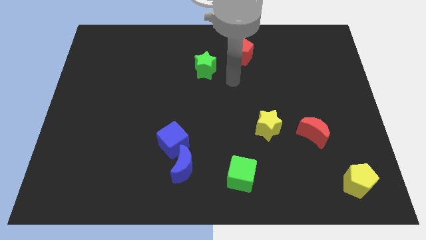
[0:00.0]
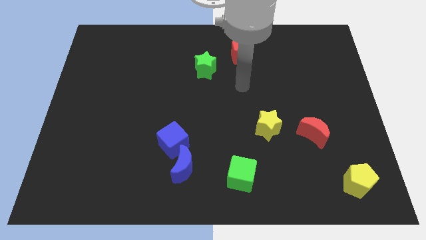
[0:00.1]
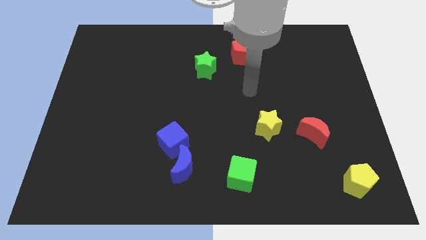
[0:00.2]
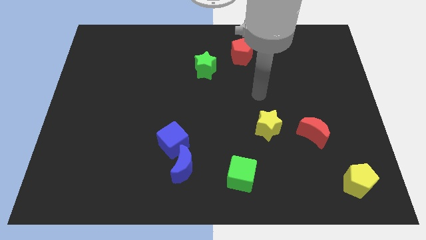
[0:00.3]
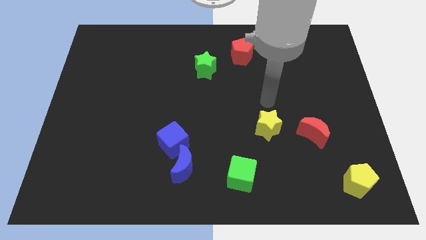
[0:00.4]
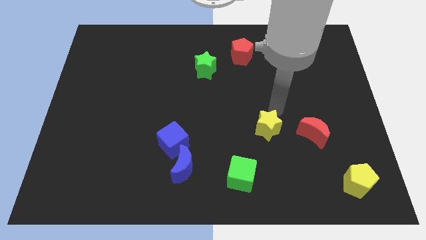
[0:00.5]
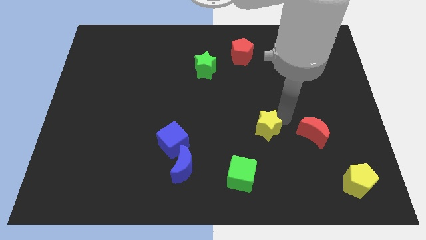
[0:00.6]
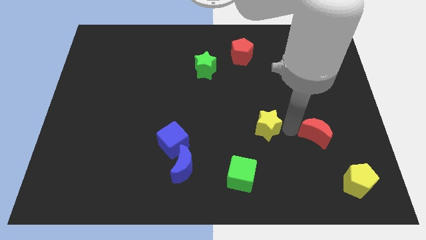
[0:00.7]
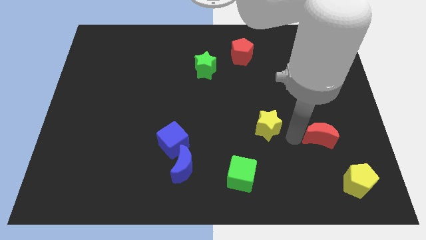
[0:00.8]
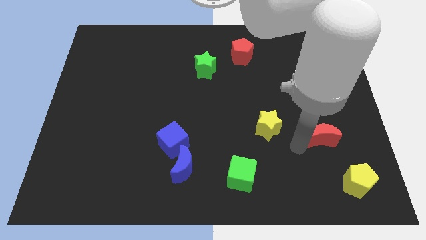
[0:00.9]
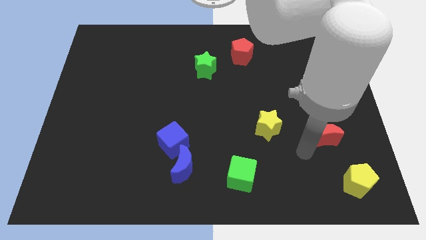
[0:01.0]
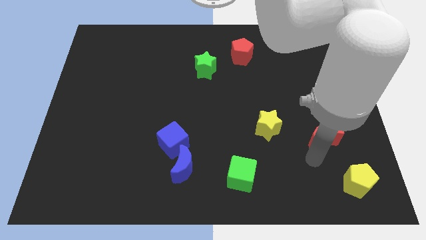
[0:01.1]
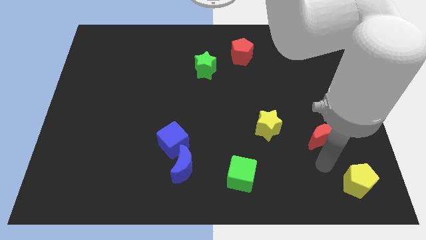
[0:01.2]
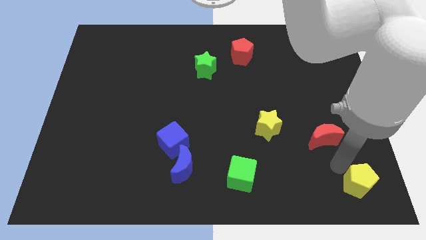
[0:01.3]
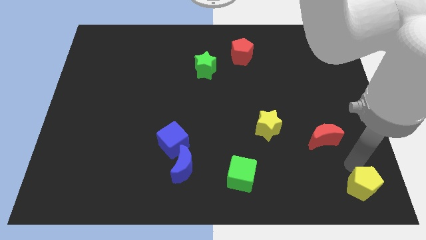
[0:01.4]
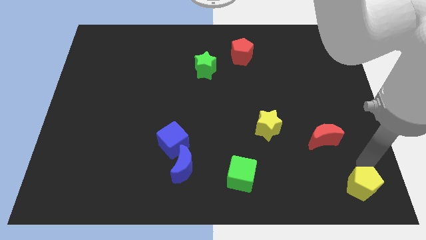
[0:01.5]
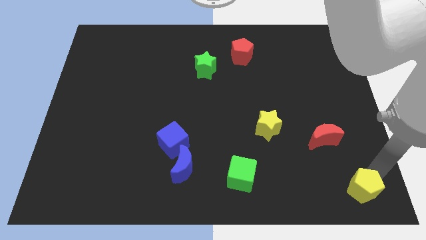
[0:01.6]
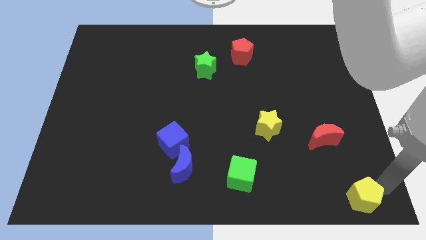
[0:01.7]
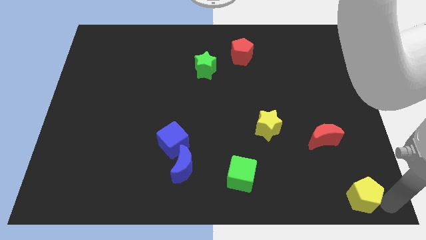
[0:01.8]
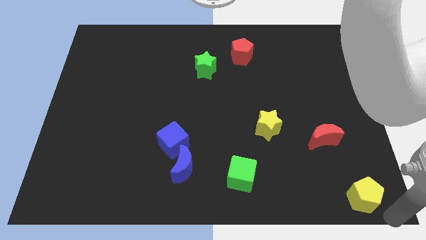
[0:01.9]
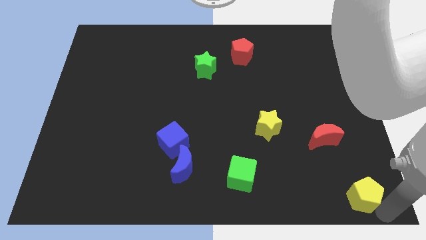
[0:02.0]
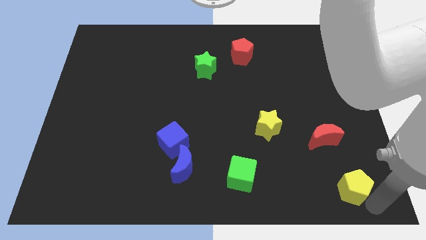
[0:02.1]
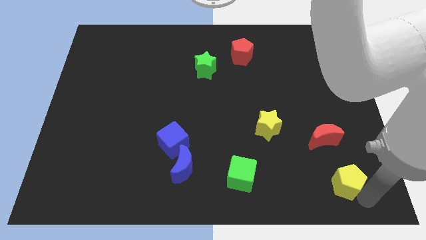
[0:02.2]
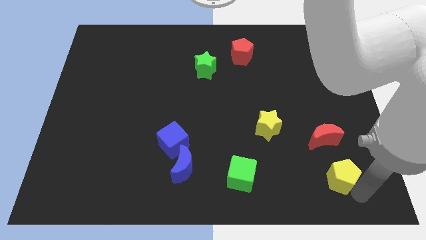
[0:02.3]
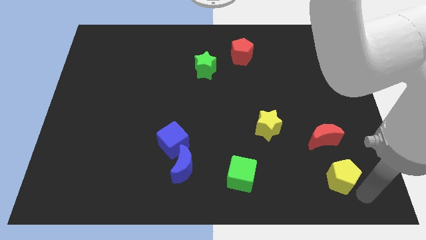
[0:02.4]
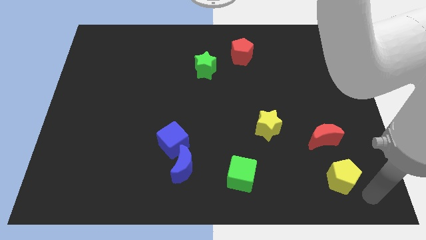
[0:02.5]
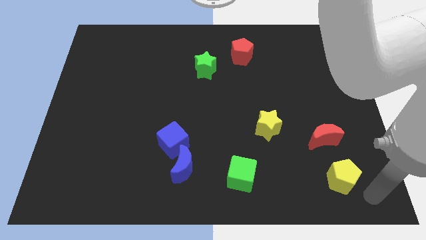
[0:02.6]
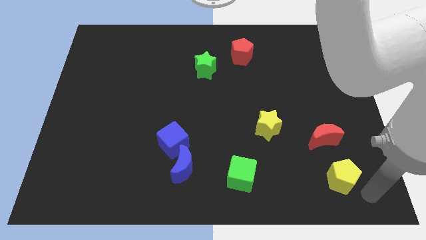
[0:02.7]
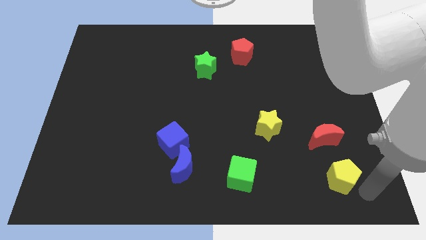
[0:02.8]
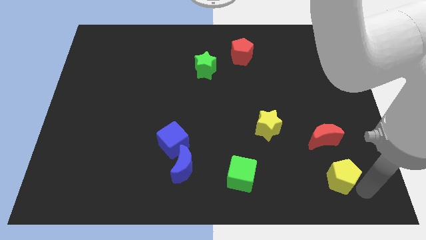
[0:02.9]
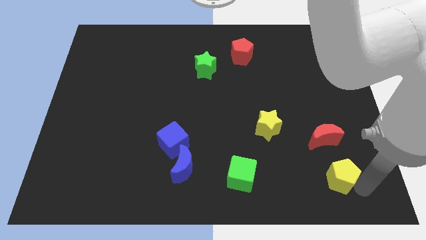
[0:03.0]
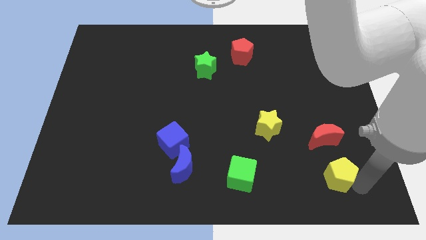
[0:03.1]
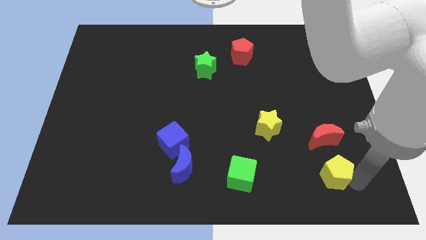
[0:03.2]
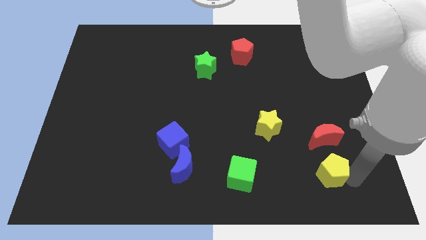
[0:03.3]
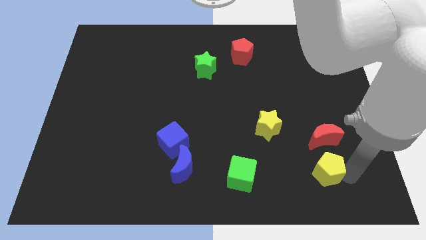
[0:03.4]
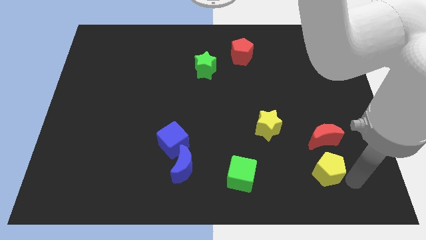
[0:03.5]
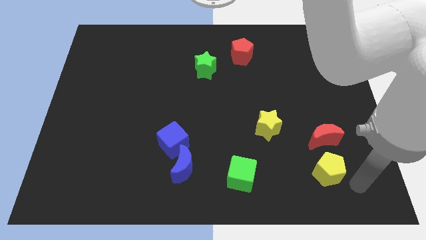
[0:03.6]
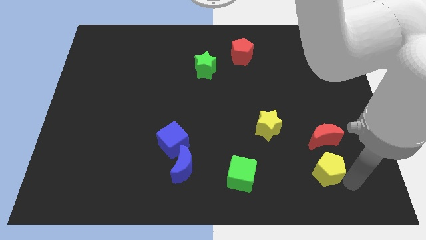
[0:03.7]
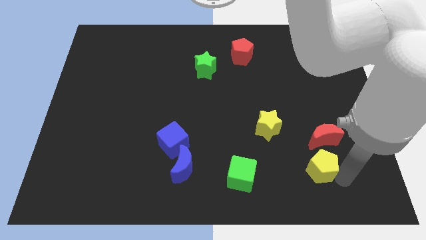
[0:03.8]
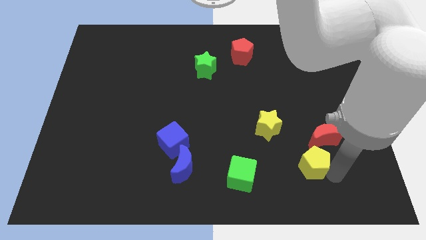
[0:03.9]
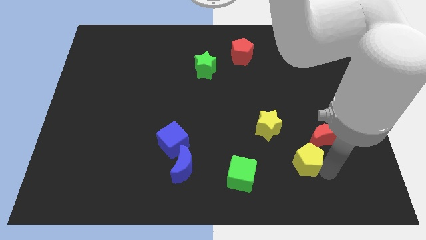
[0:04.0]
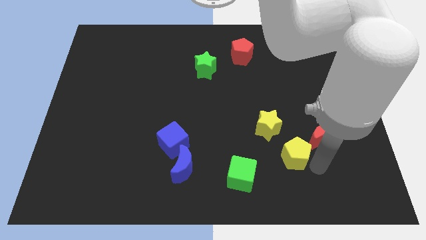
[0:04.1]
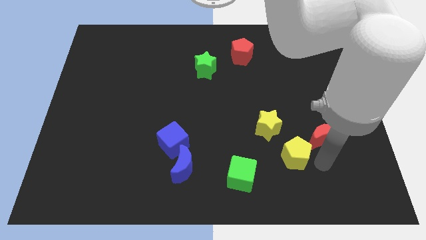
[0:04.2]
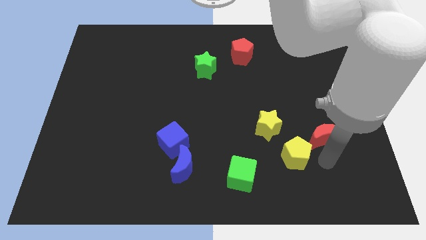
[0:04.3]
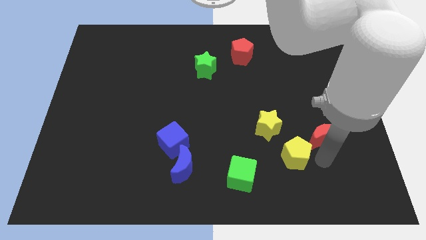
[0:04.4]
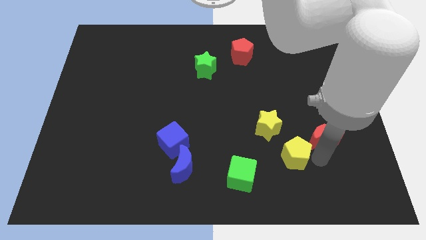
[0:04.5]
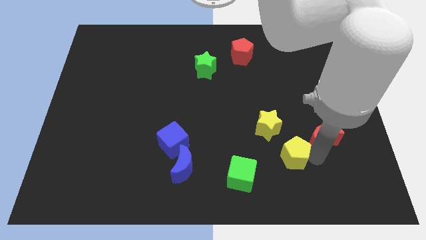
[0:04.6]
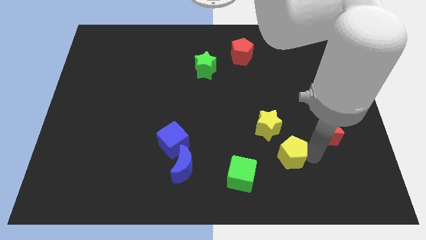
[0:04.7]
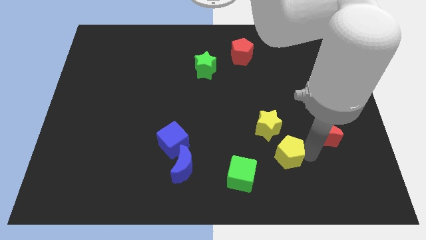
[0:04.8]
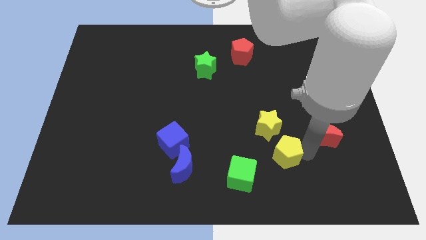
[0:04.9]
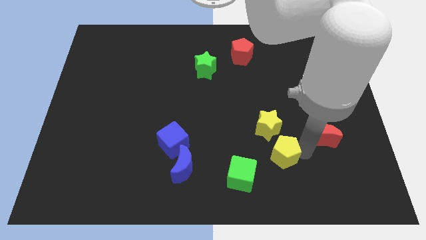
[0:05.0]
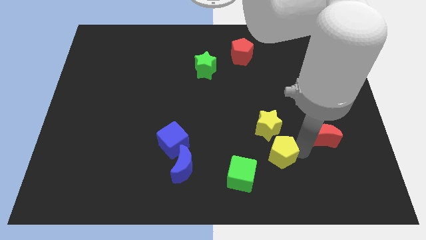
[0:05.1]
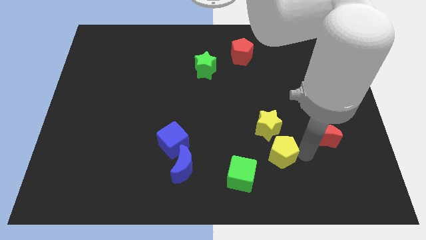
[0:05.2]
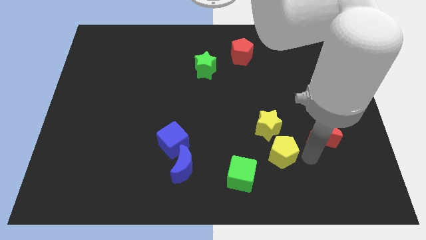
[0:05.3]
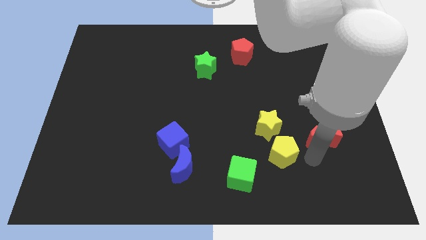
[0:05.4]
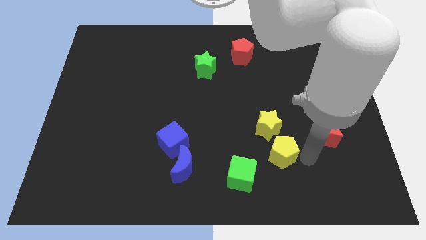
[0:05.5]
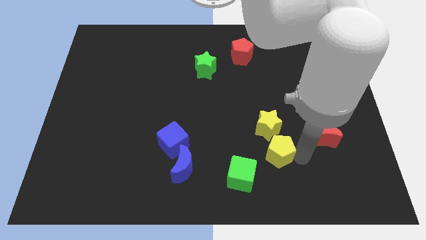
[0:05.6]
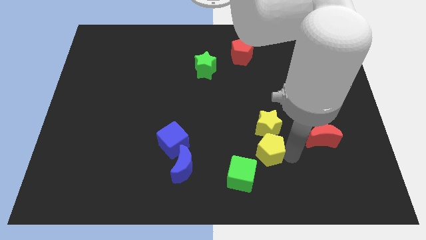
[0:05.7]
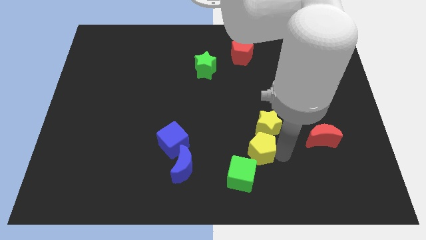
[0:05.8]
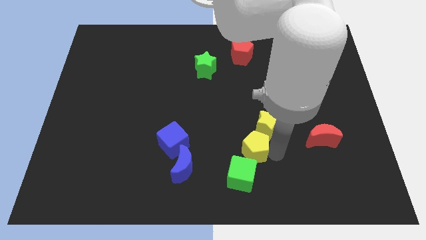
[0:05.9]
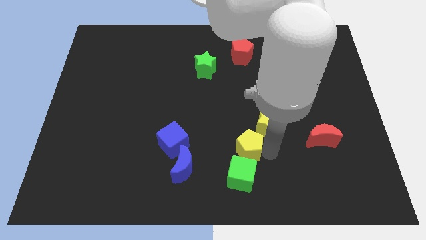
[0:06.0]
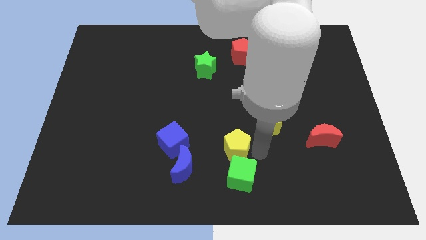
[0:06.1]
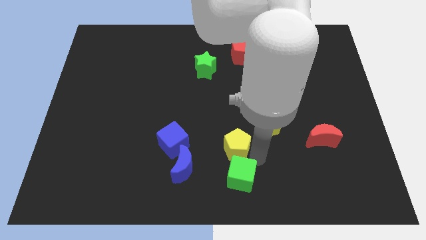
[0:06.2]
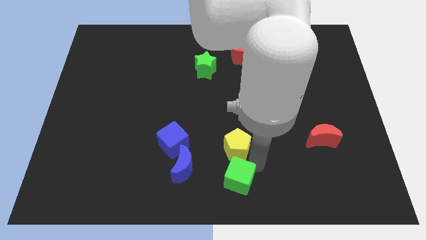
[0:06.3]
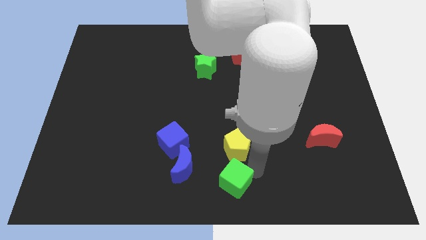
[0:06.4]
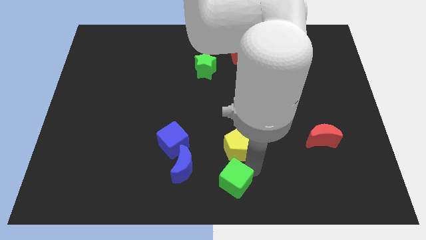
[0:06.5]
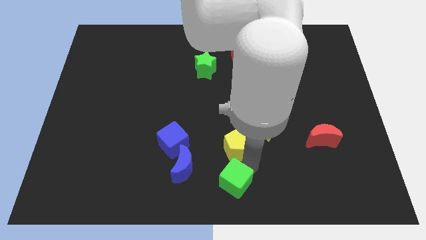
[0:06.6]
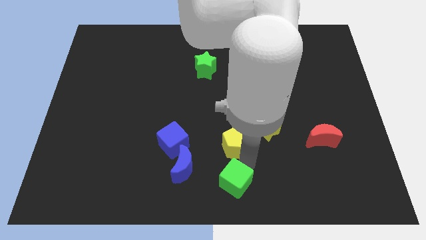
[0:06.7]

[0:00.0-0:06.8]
push the yellow pentagon left of the yellow star

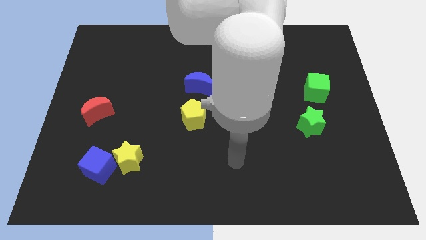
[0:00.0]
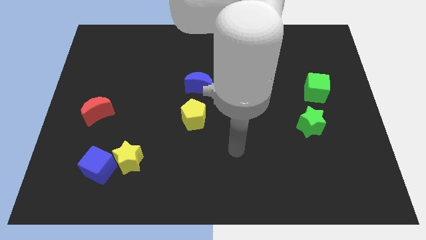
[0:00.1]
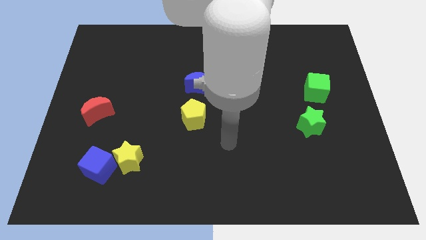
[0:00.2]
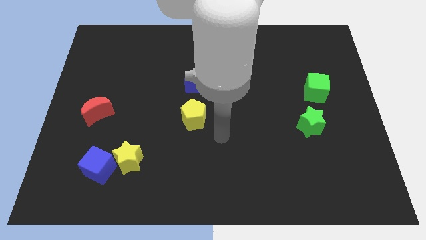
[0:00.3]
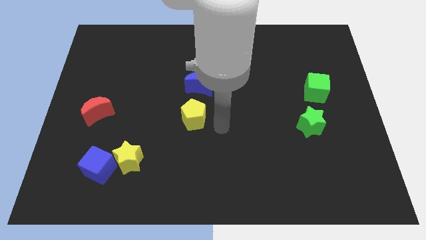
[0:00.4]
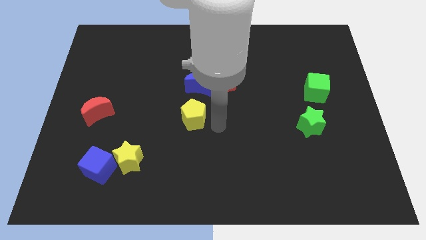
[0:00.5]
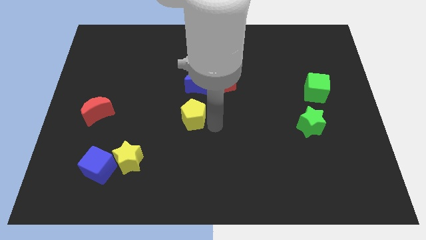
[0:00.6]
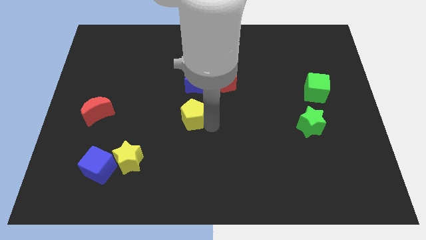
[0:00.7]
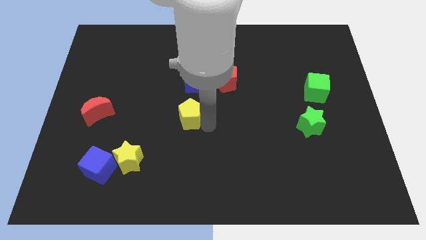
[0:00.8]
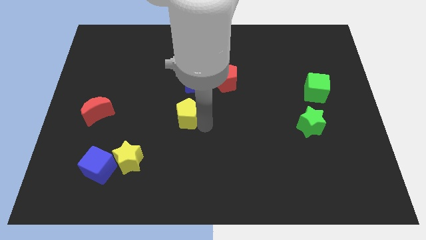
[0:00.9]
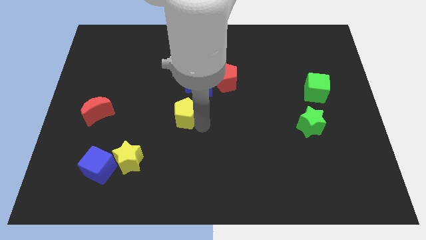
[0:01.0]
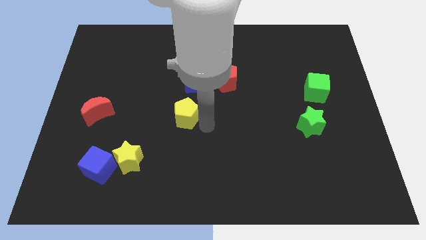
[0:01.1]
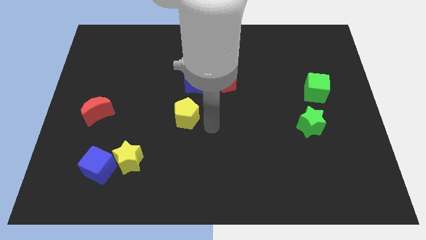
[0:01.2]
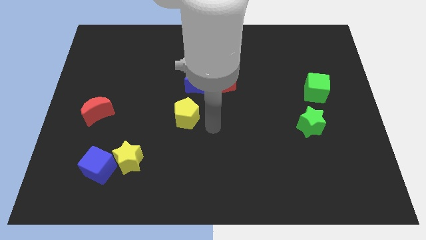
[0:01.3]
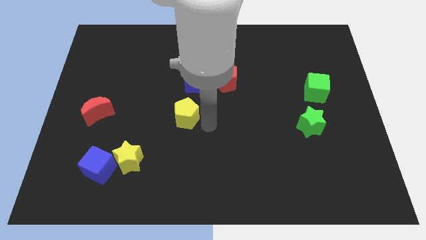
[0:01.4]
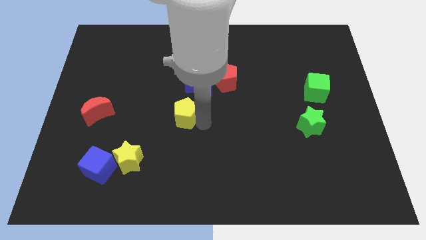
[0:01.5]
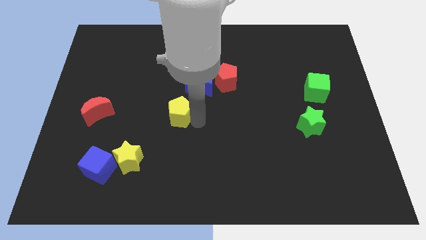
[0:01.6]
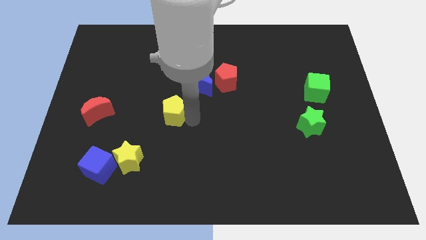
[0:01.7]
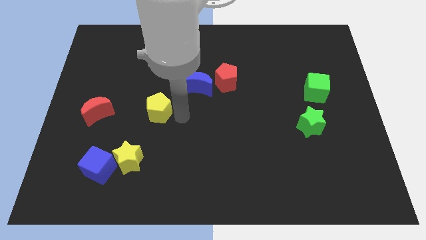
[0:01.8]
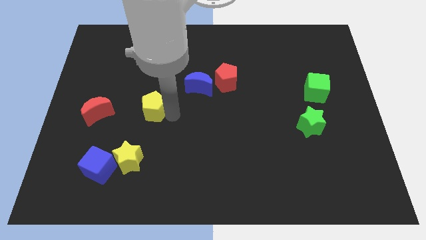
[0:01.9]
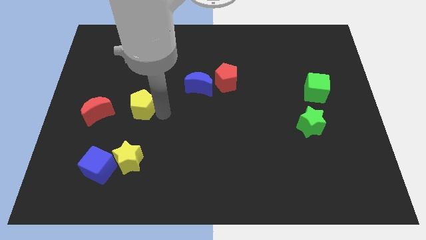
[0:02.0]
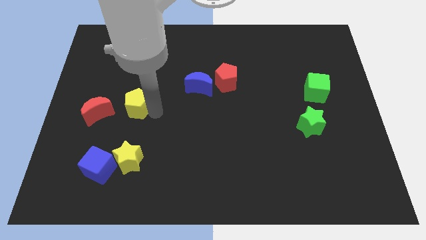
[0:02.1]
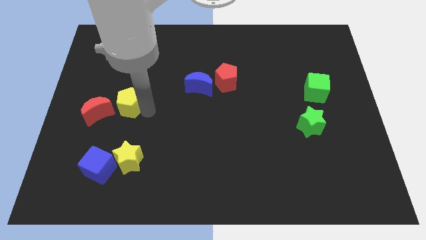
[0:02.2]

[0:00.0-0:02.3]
slide the yellow pentagon to the top right side of the red moon
